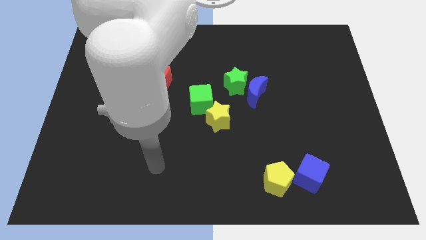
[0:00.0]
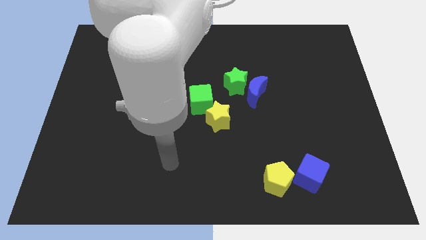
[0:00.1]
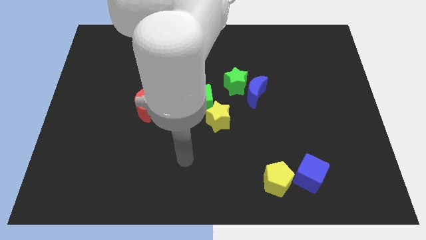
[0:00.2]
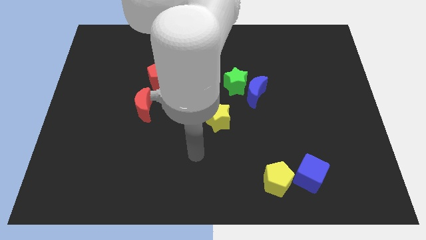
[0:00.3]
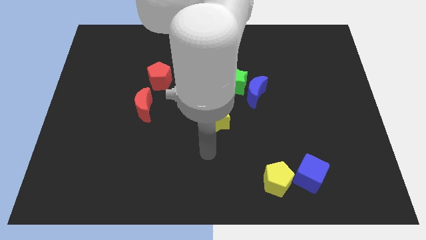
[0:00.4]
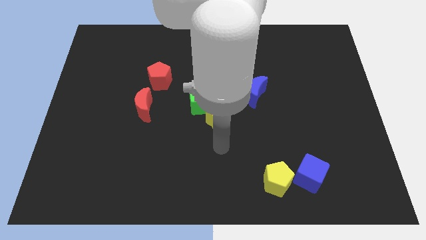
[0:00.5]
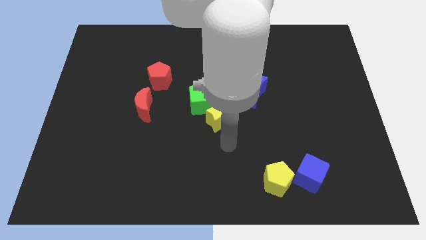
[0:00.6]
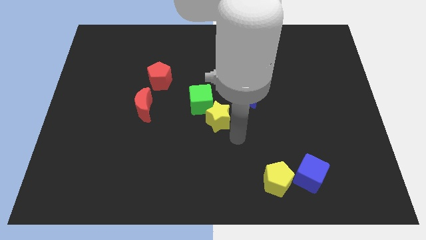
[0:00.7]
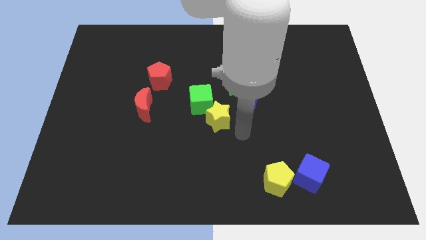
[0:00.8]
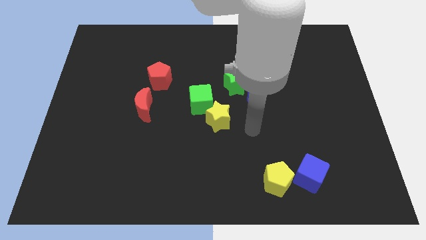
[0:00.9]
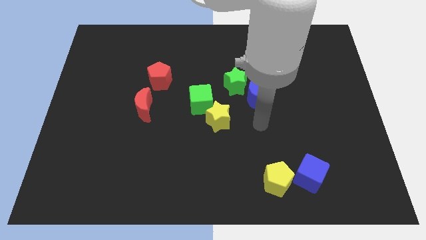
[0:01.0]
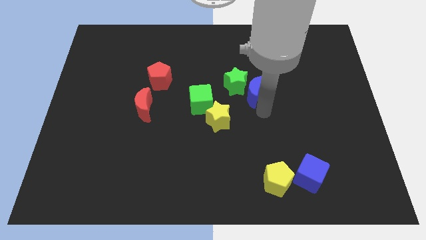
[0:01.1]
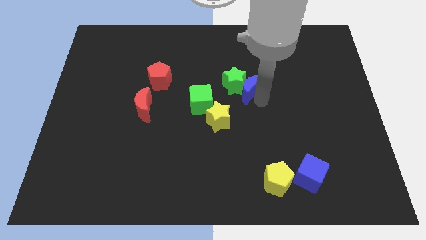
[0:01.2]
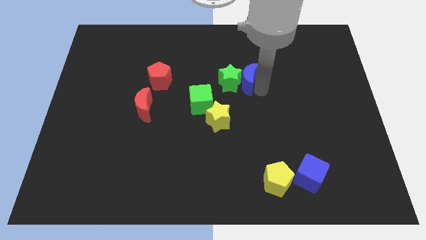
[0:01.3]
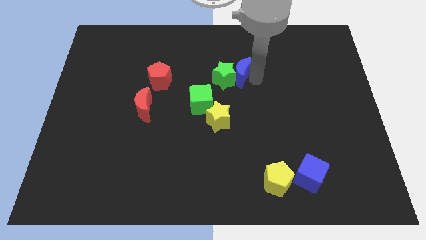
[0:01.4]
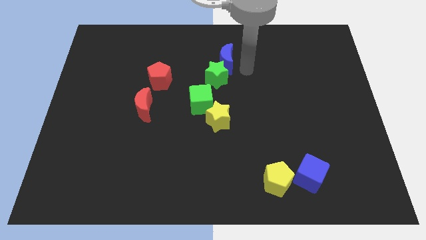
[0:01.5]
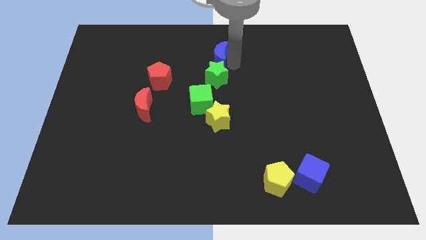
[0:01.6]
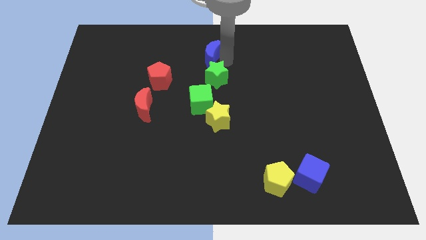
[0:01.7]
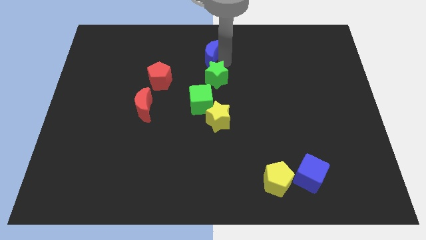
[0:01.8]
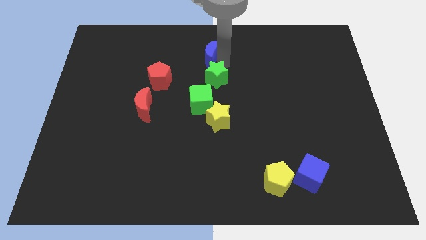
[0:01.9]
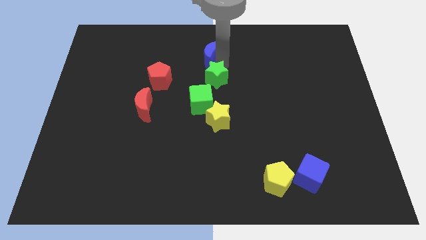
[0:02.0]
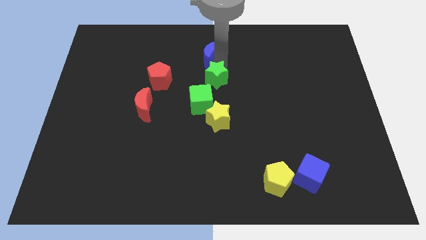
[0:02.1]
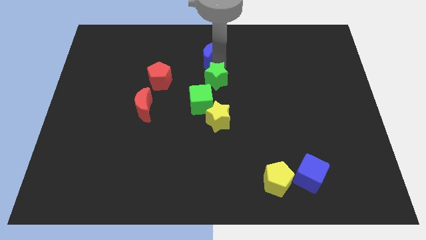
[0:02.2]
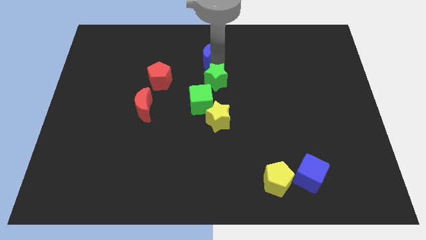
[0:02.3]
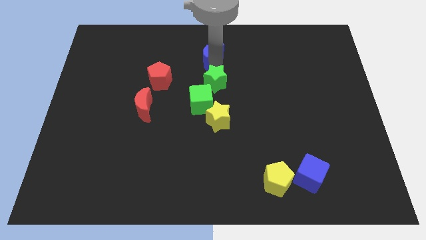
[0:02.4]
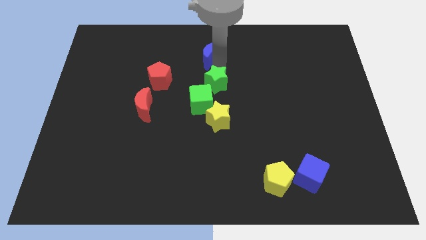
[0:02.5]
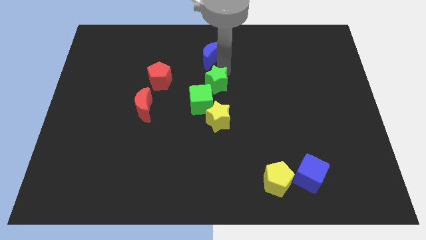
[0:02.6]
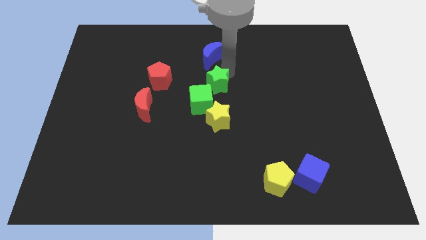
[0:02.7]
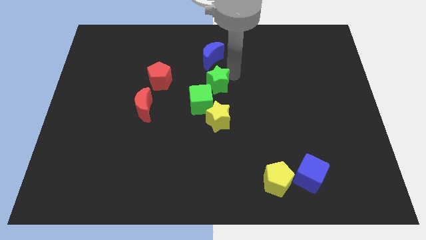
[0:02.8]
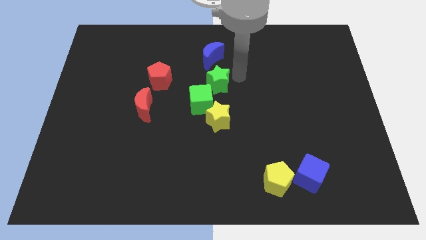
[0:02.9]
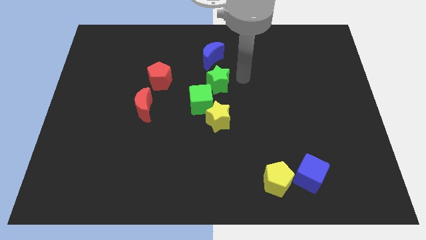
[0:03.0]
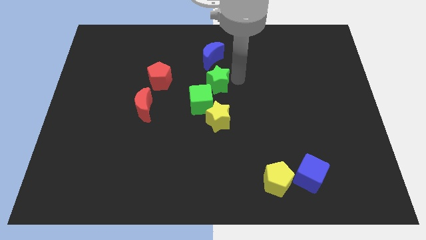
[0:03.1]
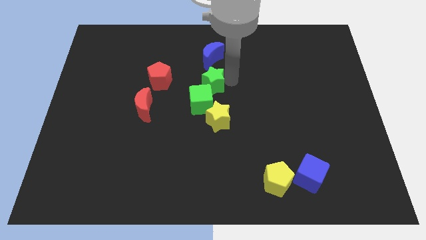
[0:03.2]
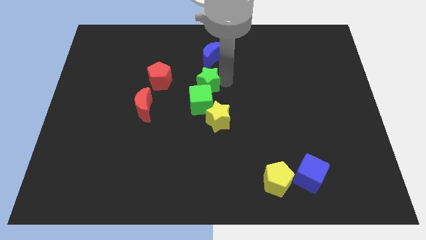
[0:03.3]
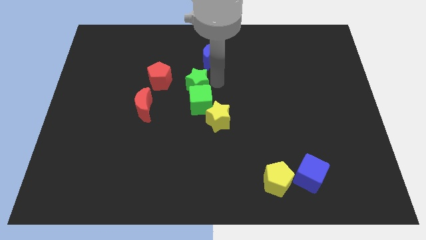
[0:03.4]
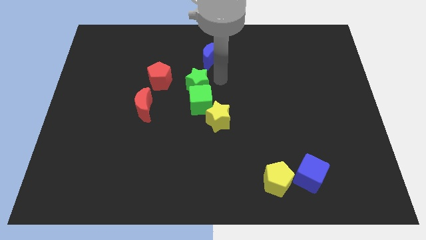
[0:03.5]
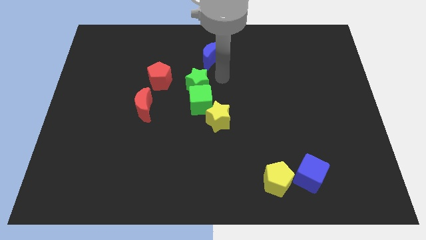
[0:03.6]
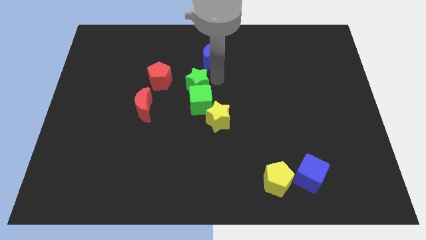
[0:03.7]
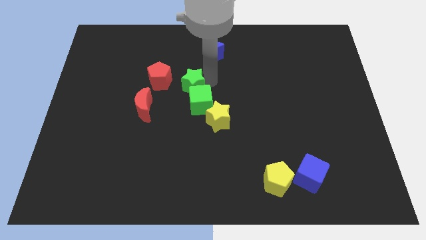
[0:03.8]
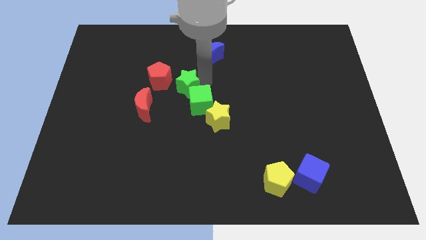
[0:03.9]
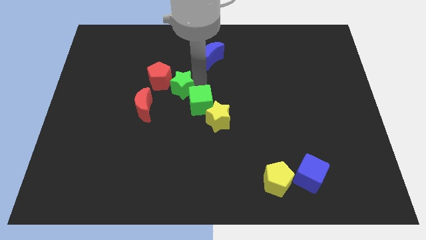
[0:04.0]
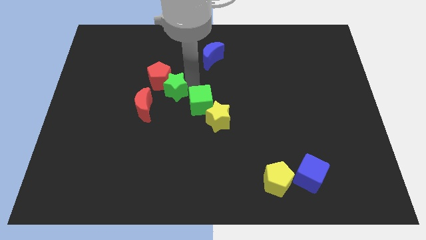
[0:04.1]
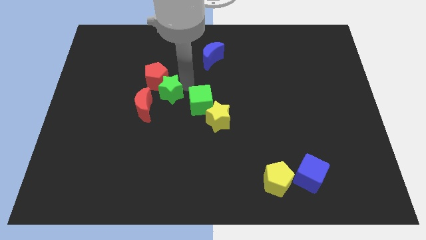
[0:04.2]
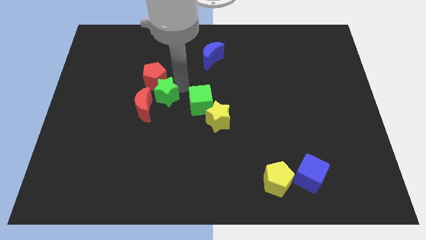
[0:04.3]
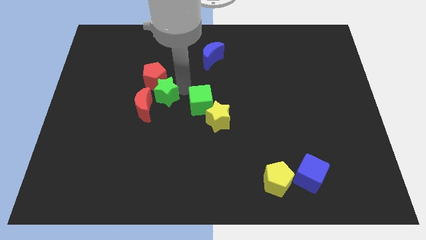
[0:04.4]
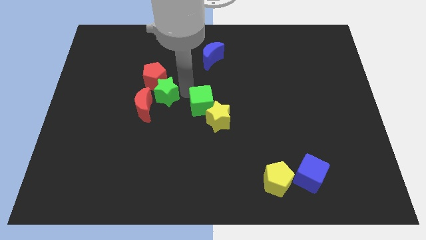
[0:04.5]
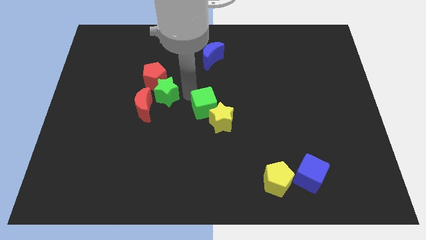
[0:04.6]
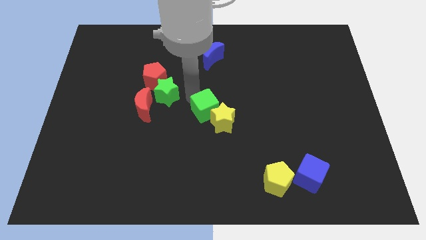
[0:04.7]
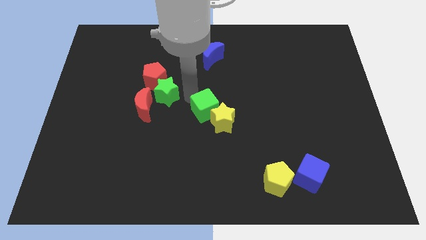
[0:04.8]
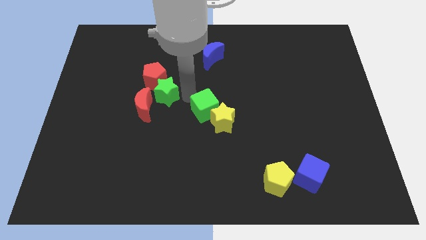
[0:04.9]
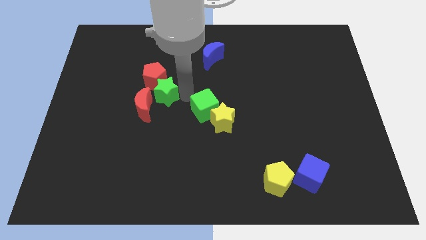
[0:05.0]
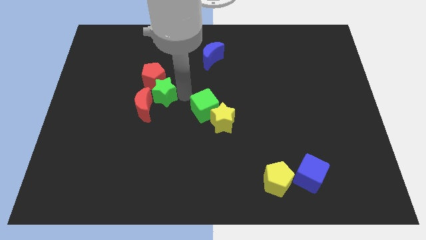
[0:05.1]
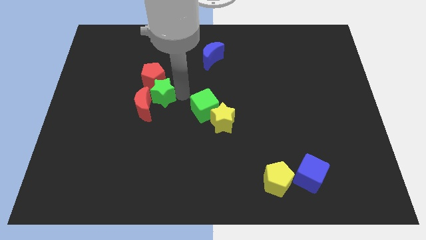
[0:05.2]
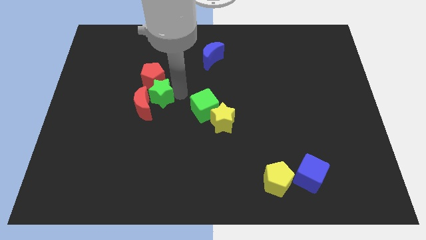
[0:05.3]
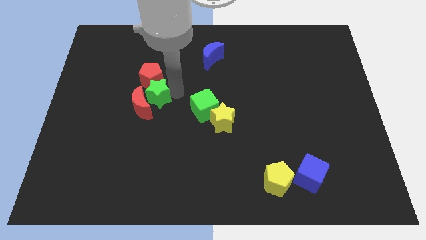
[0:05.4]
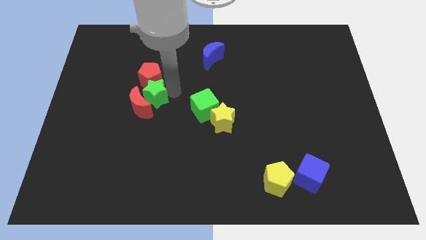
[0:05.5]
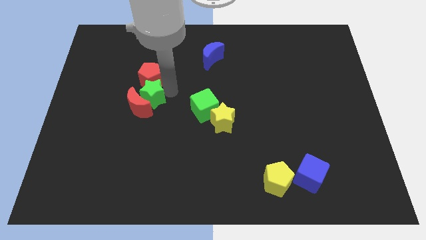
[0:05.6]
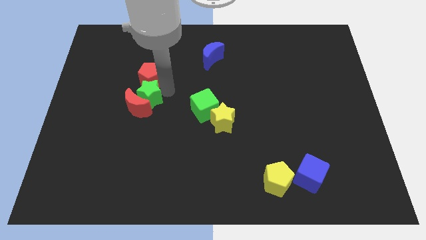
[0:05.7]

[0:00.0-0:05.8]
push the green star left

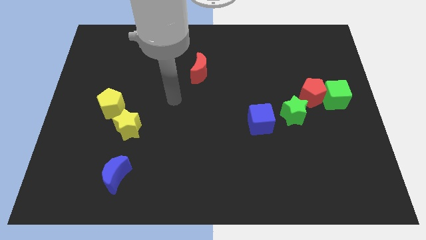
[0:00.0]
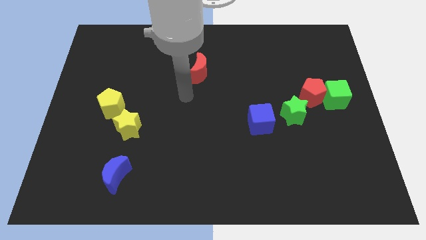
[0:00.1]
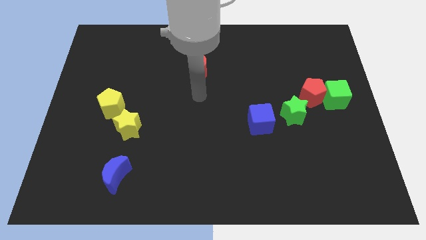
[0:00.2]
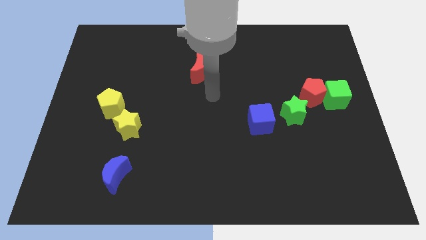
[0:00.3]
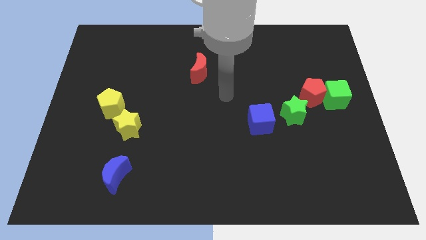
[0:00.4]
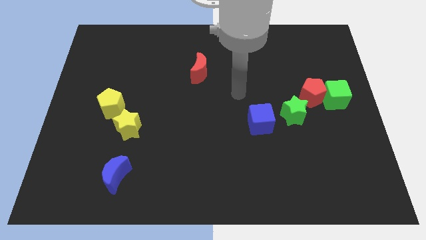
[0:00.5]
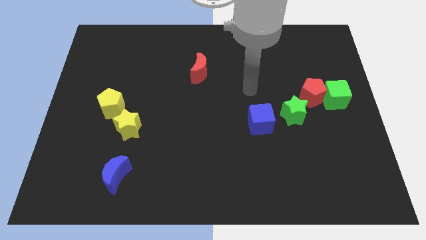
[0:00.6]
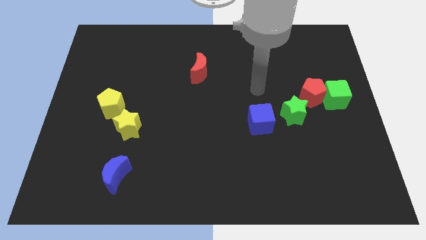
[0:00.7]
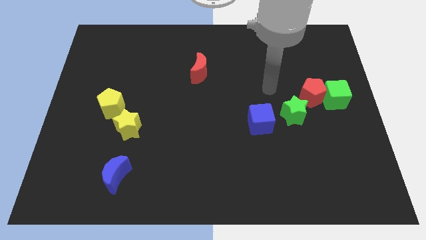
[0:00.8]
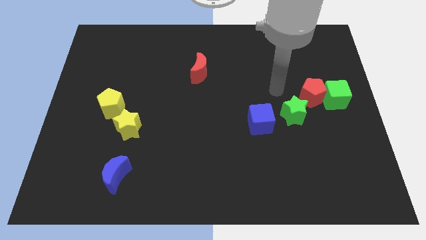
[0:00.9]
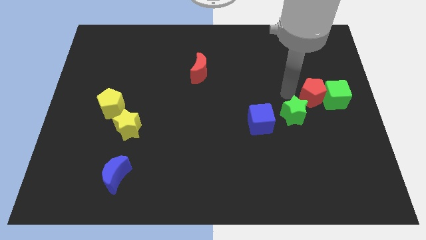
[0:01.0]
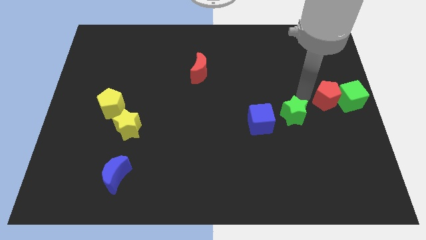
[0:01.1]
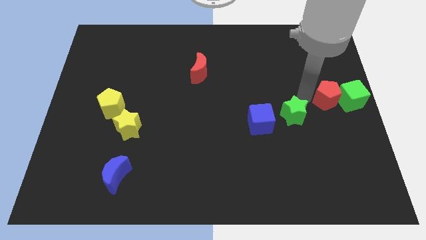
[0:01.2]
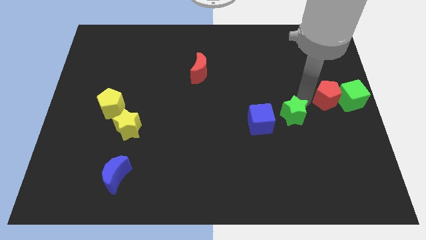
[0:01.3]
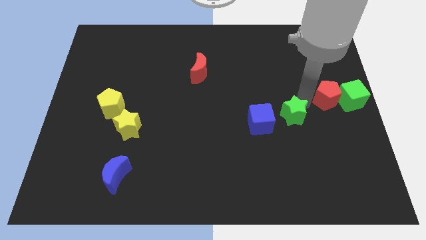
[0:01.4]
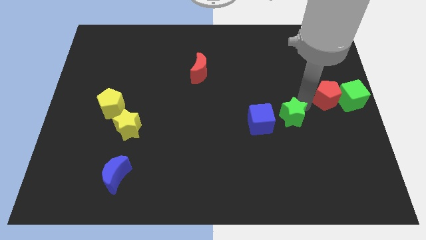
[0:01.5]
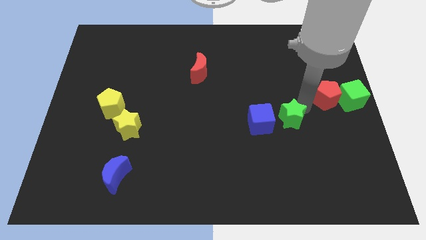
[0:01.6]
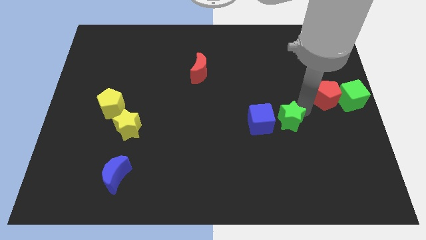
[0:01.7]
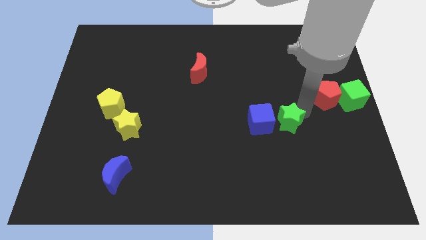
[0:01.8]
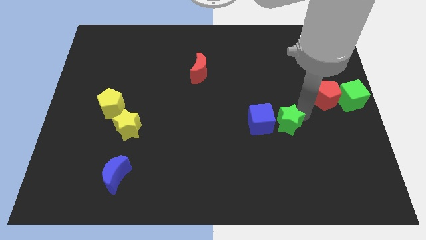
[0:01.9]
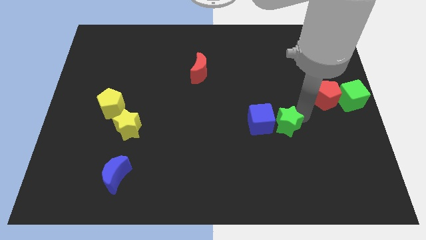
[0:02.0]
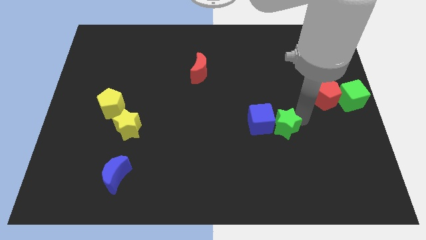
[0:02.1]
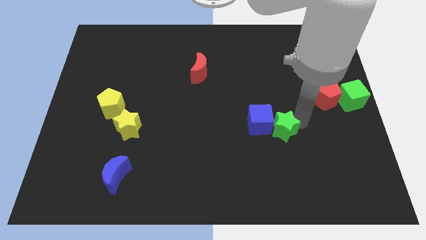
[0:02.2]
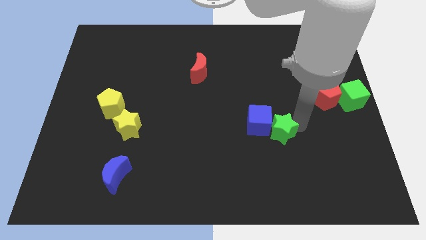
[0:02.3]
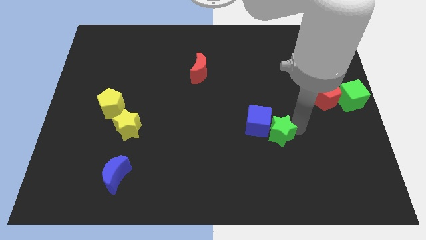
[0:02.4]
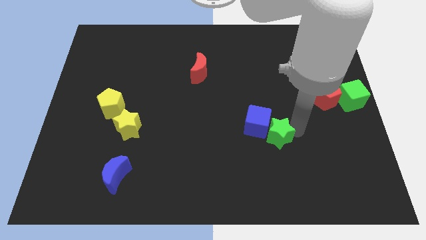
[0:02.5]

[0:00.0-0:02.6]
move the green star downwards and then to the left somewhat
